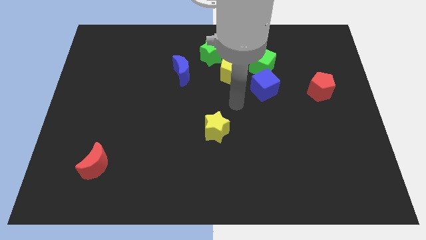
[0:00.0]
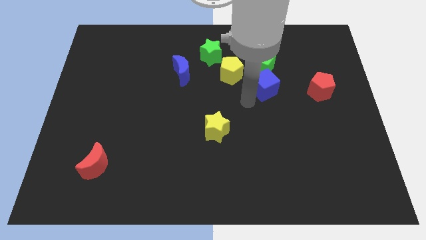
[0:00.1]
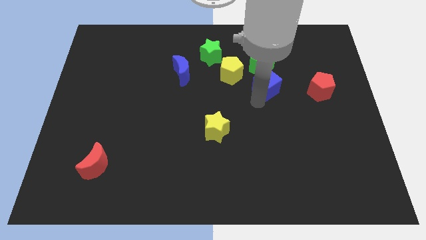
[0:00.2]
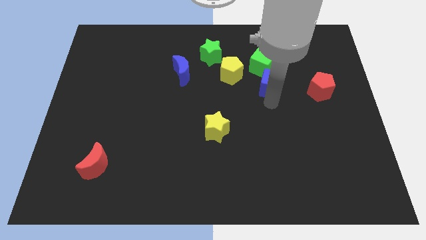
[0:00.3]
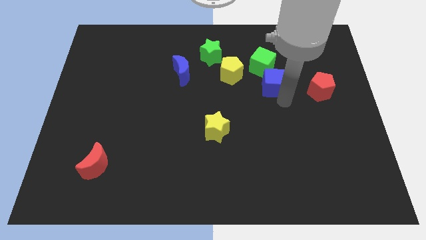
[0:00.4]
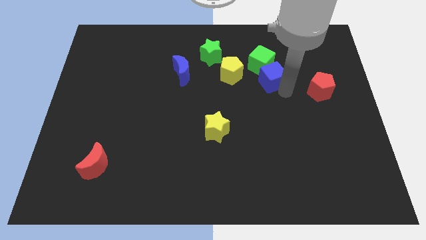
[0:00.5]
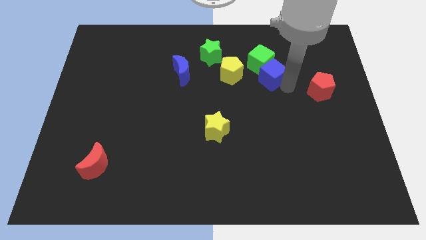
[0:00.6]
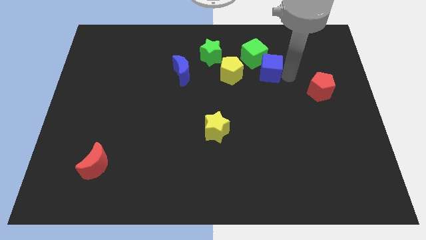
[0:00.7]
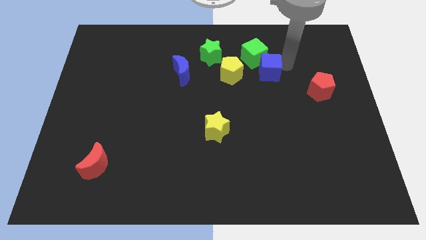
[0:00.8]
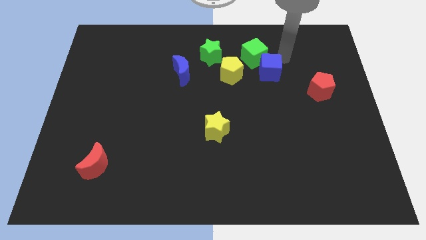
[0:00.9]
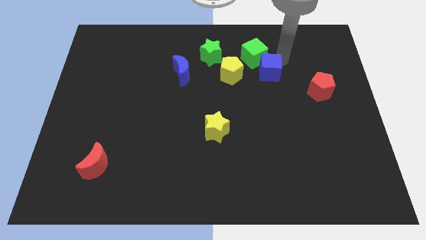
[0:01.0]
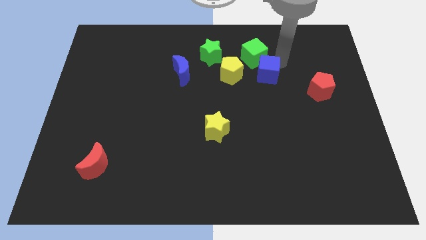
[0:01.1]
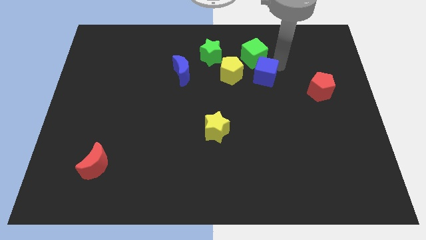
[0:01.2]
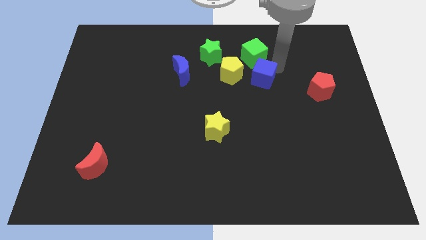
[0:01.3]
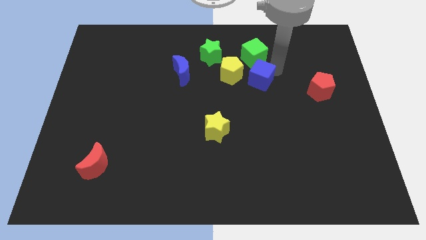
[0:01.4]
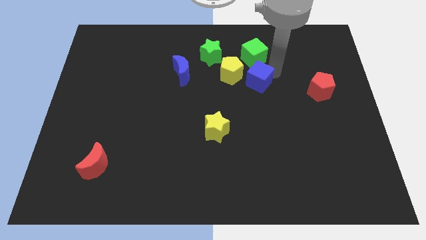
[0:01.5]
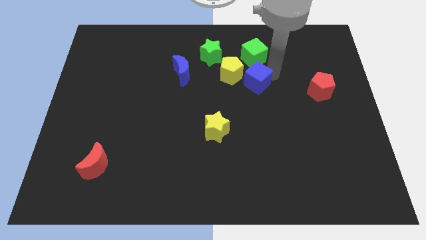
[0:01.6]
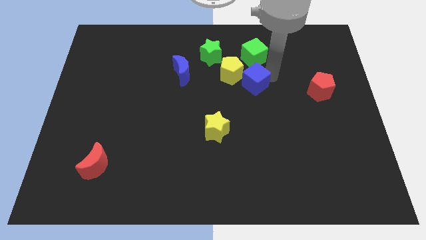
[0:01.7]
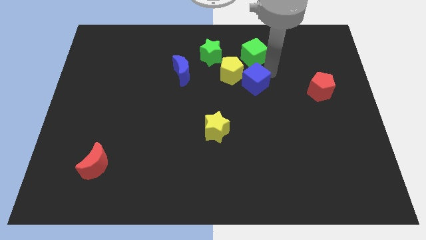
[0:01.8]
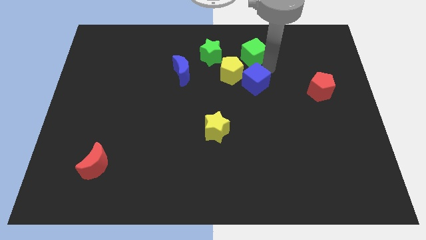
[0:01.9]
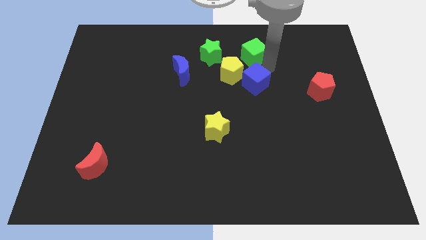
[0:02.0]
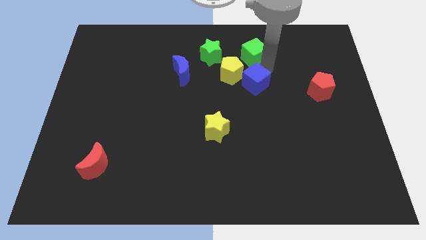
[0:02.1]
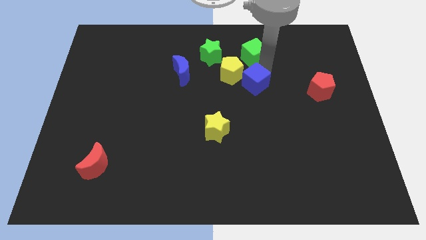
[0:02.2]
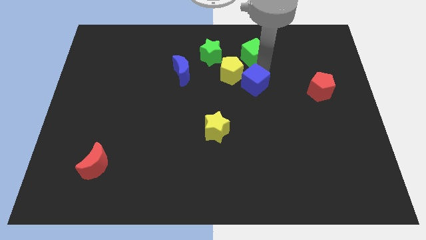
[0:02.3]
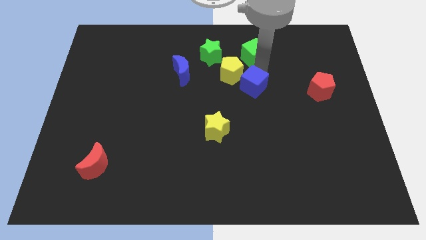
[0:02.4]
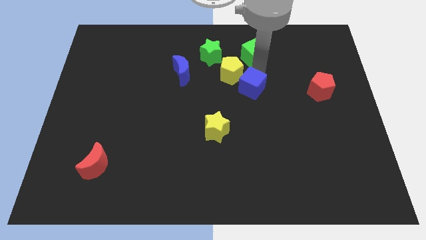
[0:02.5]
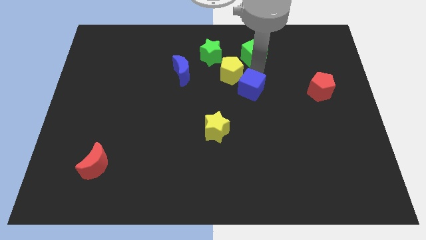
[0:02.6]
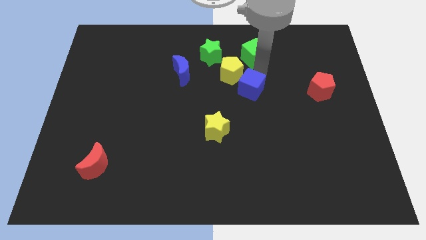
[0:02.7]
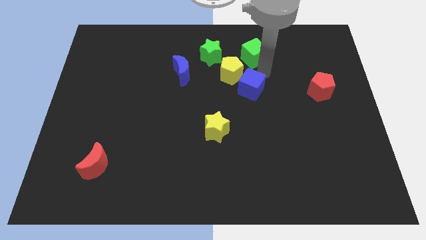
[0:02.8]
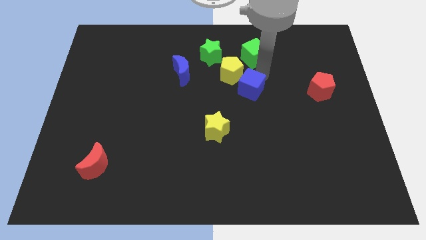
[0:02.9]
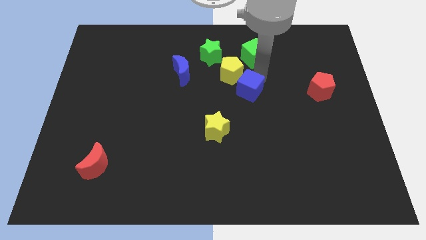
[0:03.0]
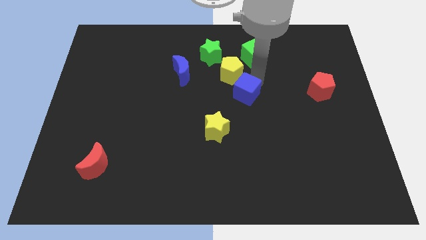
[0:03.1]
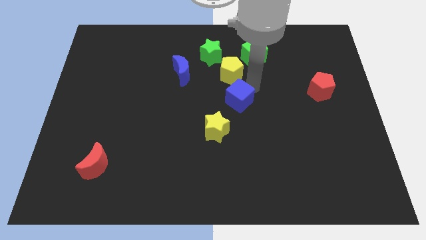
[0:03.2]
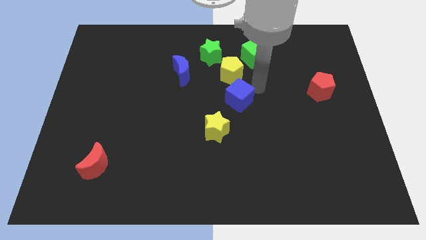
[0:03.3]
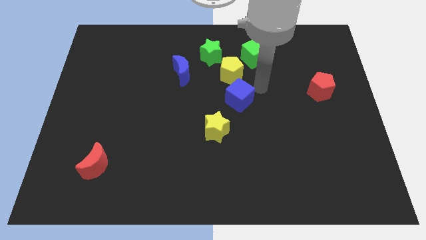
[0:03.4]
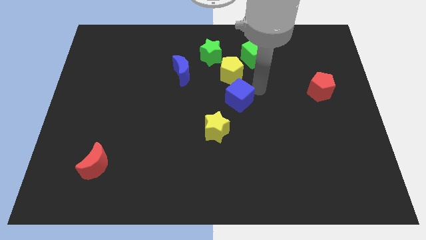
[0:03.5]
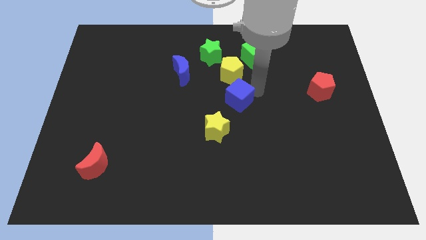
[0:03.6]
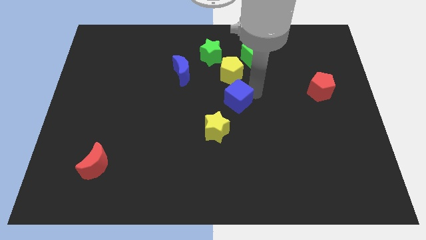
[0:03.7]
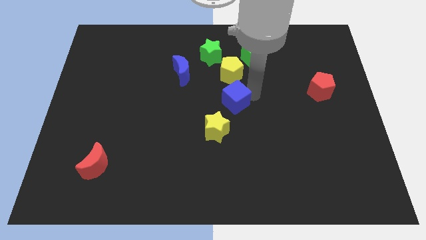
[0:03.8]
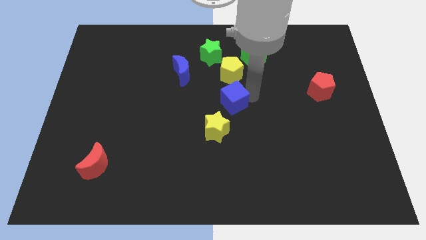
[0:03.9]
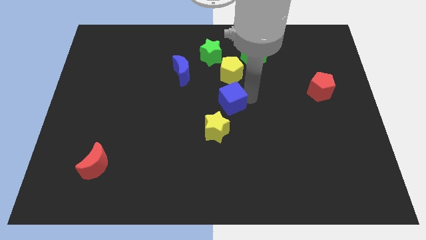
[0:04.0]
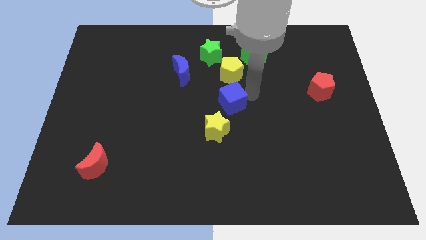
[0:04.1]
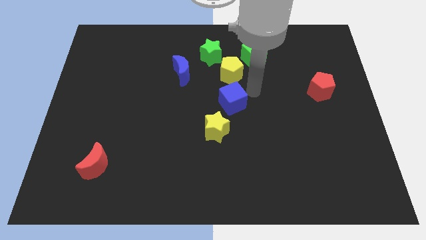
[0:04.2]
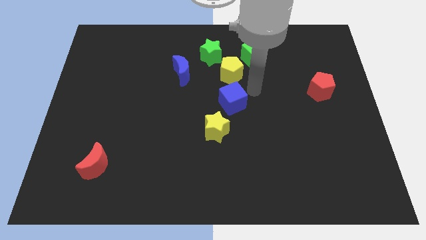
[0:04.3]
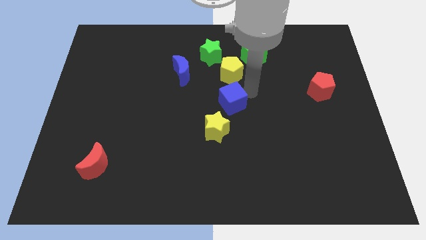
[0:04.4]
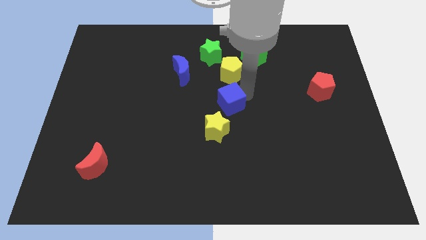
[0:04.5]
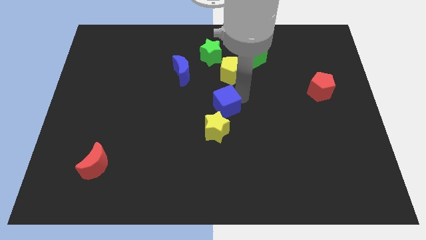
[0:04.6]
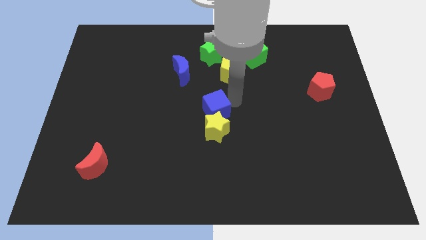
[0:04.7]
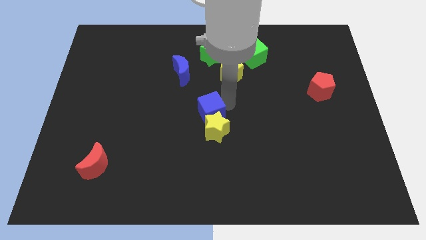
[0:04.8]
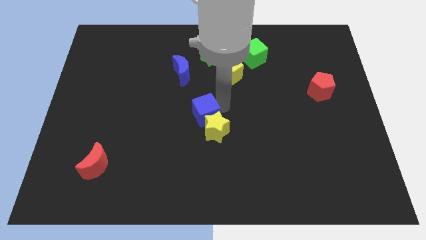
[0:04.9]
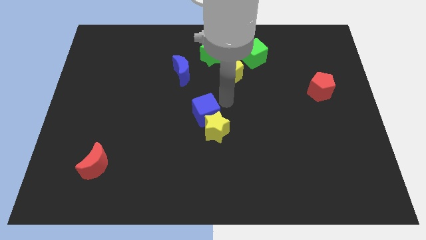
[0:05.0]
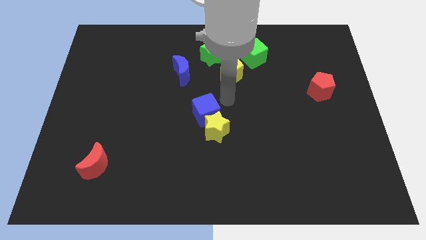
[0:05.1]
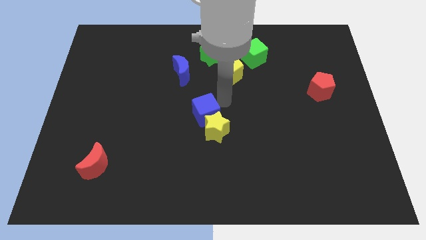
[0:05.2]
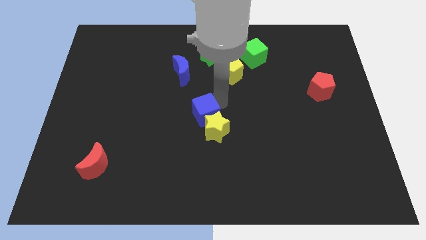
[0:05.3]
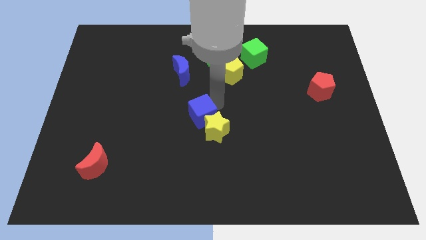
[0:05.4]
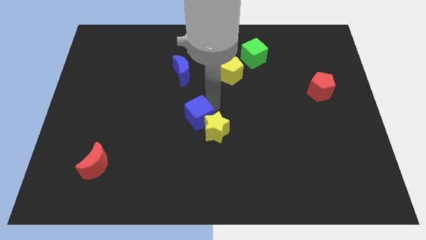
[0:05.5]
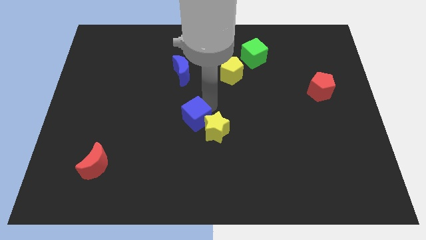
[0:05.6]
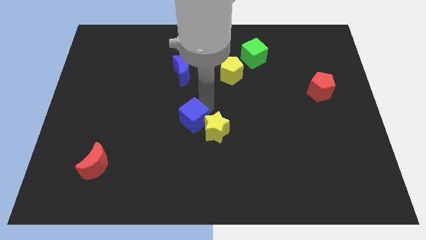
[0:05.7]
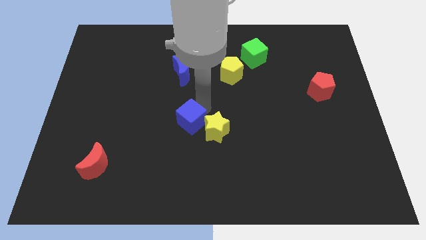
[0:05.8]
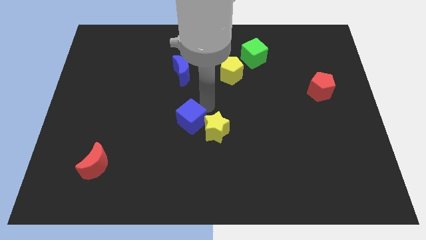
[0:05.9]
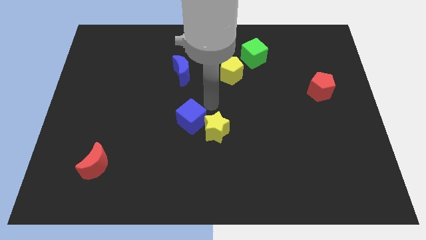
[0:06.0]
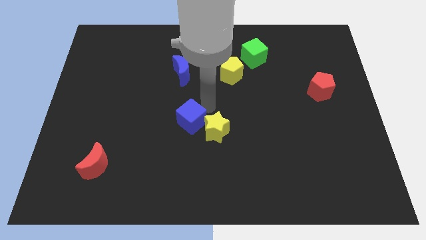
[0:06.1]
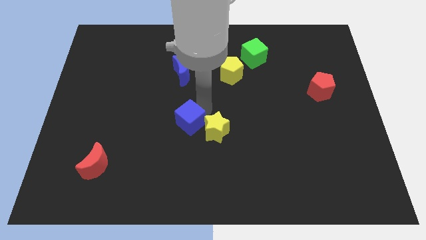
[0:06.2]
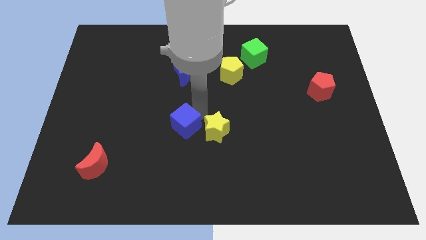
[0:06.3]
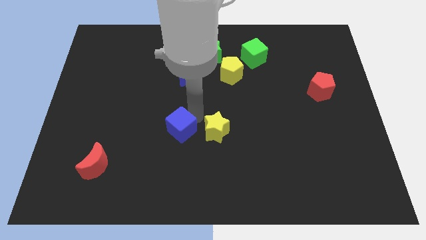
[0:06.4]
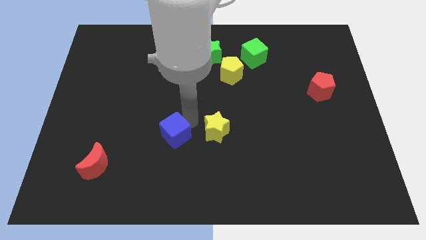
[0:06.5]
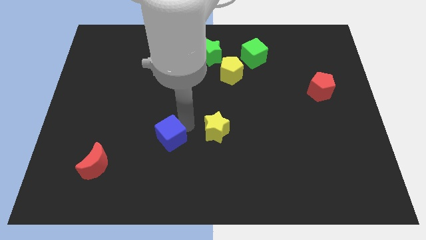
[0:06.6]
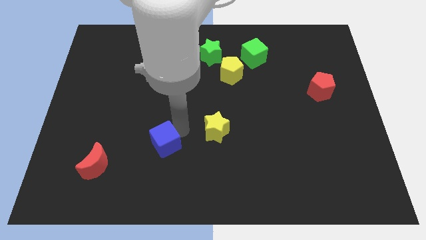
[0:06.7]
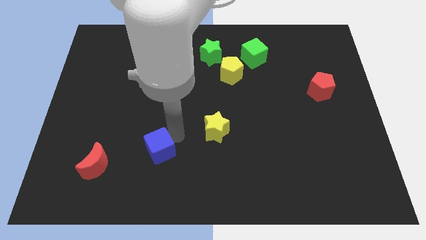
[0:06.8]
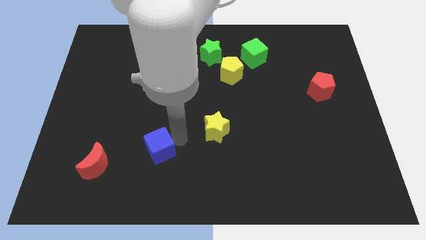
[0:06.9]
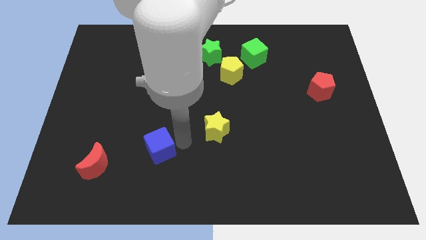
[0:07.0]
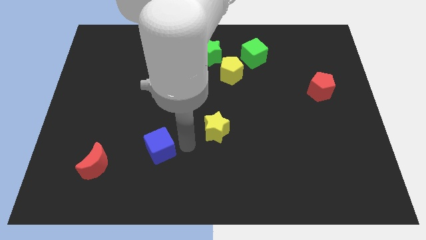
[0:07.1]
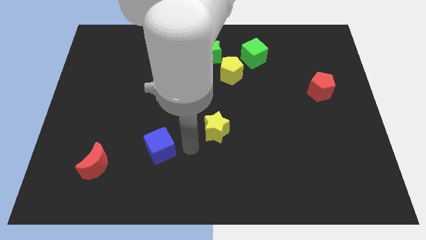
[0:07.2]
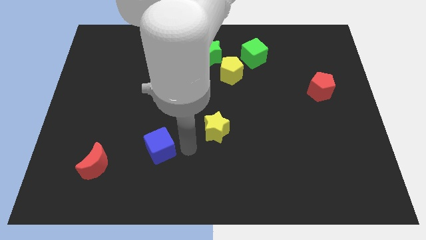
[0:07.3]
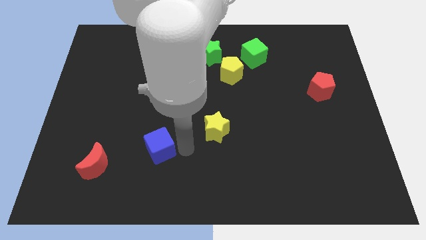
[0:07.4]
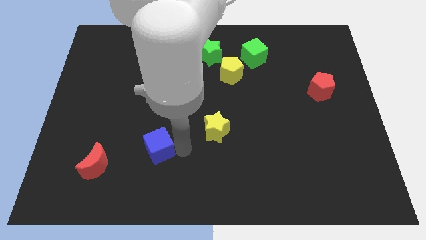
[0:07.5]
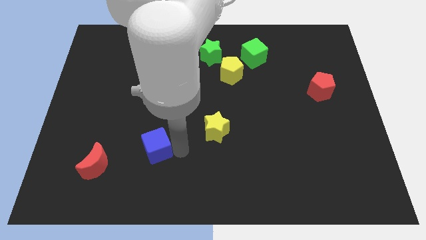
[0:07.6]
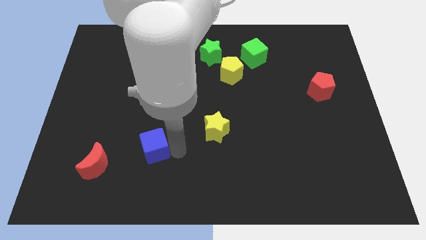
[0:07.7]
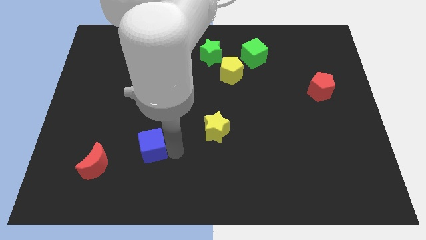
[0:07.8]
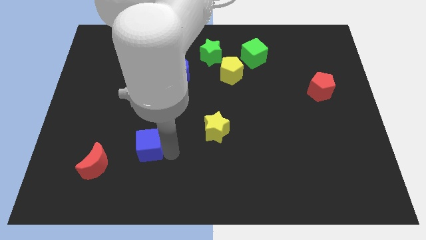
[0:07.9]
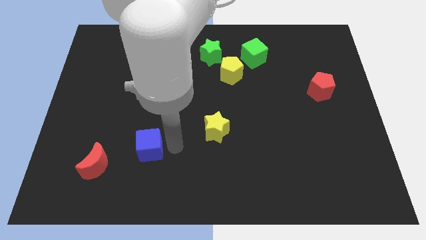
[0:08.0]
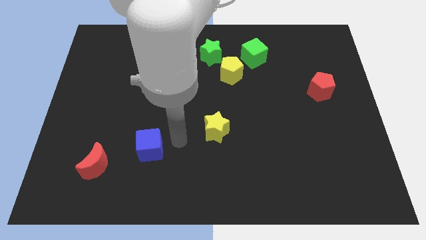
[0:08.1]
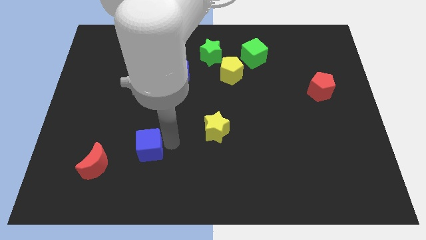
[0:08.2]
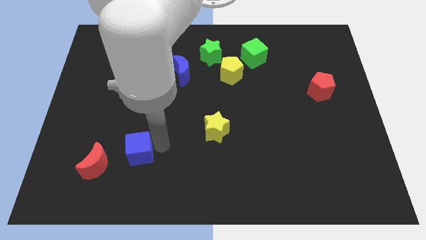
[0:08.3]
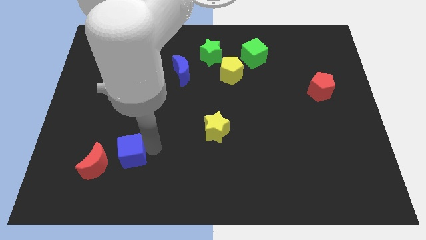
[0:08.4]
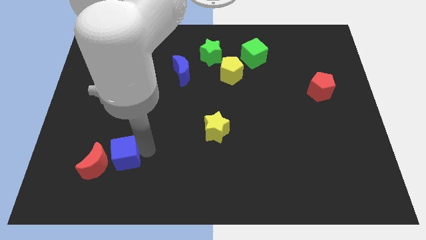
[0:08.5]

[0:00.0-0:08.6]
push the blue cube towards the red moon
